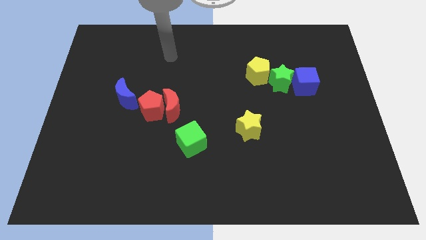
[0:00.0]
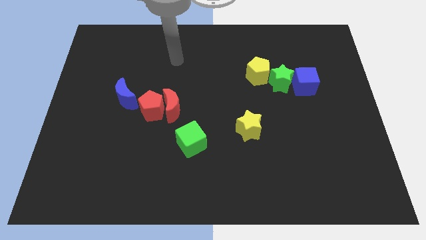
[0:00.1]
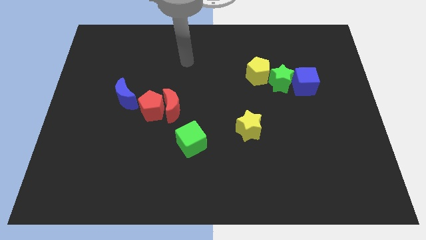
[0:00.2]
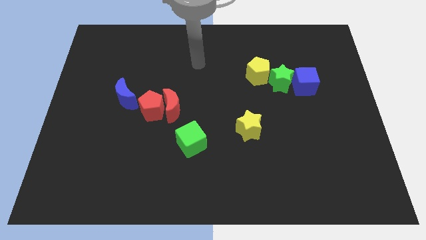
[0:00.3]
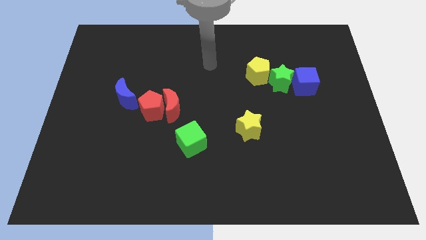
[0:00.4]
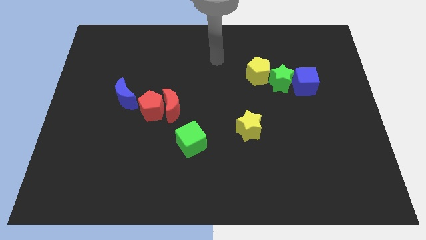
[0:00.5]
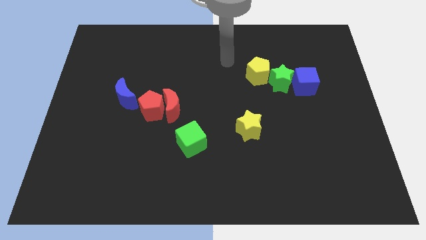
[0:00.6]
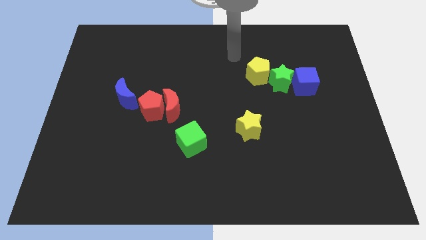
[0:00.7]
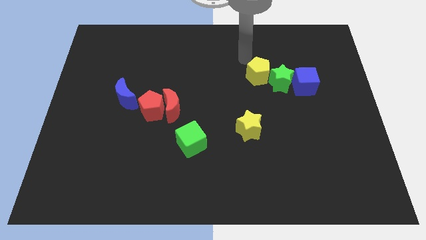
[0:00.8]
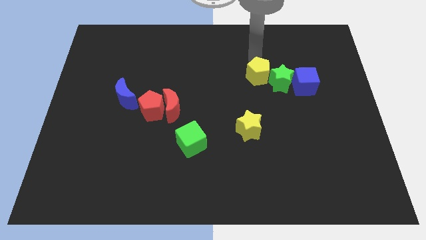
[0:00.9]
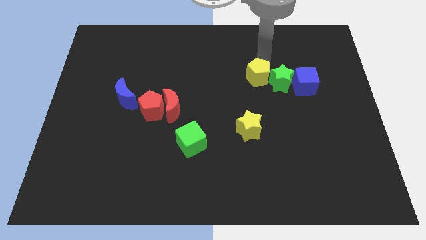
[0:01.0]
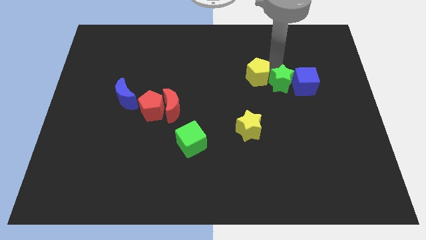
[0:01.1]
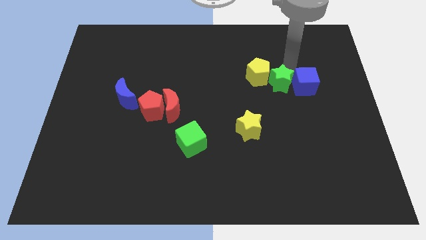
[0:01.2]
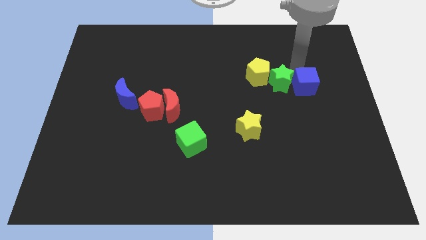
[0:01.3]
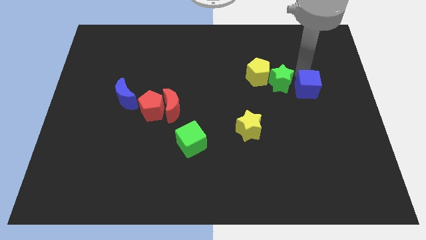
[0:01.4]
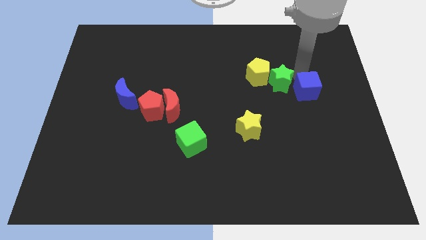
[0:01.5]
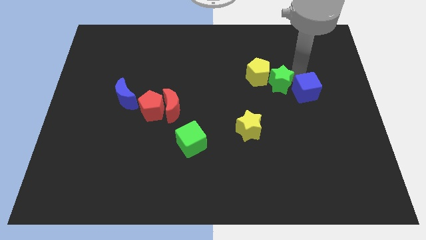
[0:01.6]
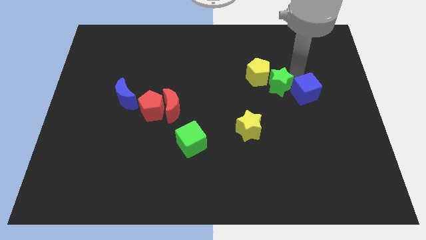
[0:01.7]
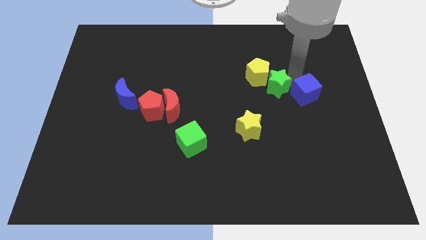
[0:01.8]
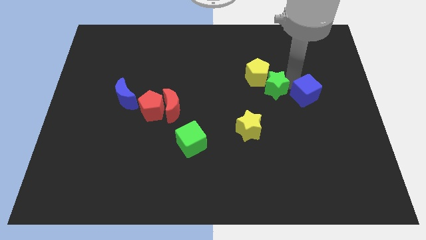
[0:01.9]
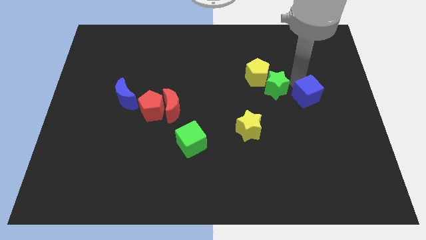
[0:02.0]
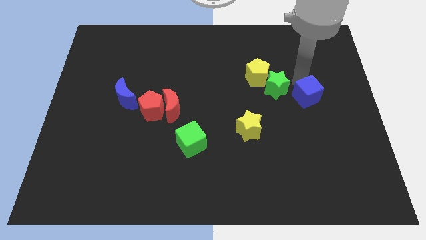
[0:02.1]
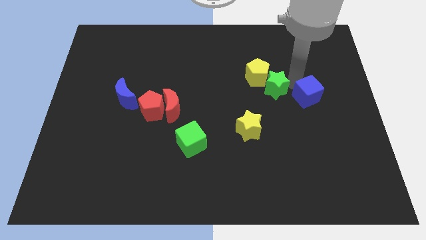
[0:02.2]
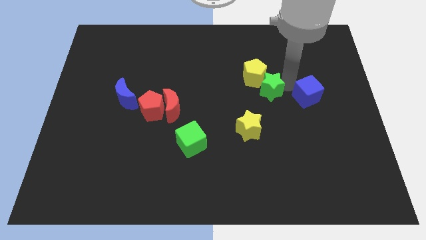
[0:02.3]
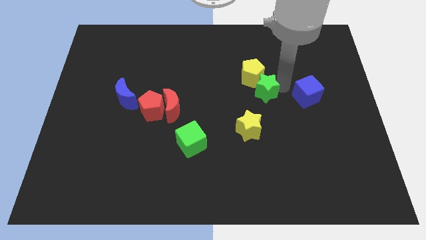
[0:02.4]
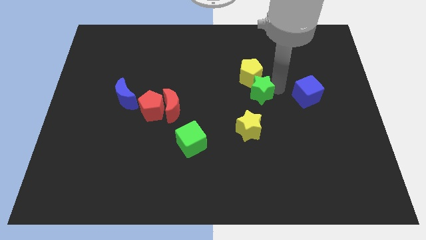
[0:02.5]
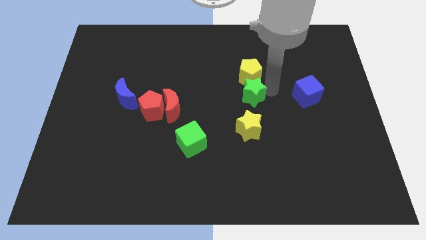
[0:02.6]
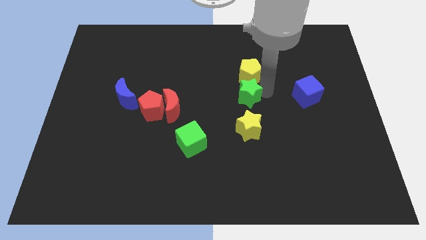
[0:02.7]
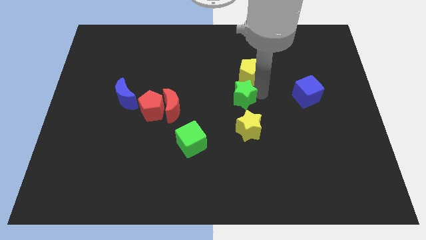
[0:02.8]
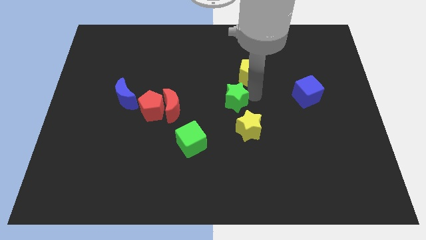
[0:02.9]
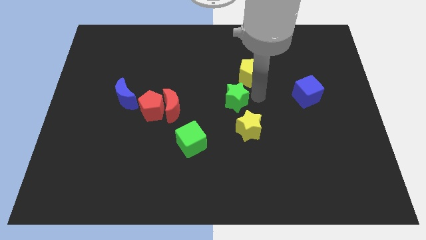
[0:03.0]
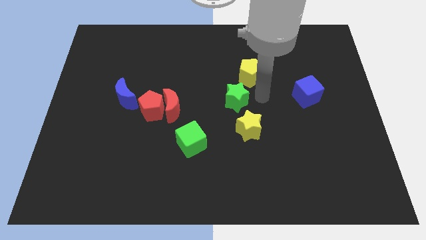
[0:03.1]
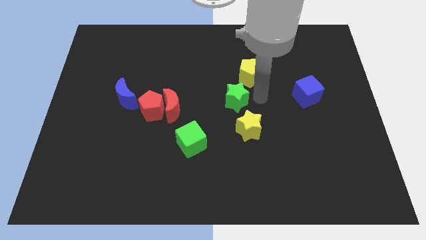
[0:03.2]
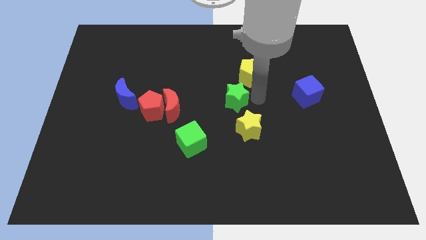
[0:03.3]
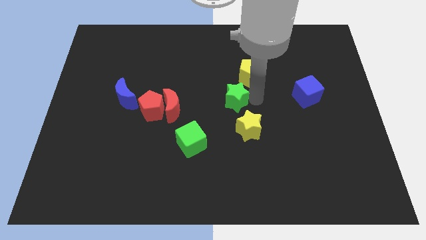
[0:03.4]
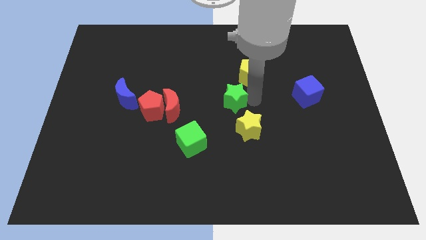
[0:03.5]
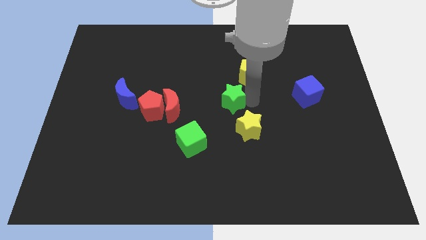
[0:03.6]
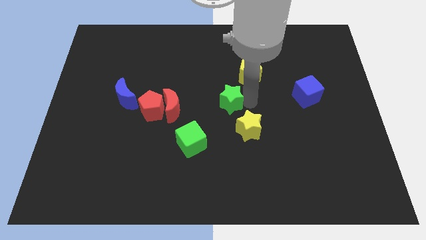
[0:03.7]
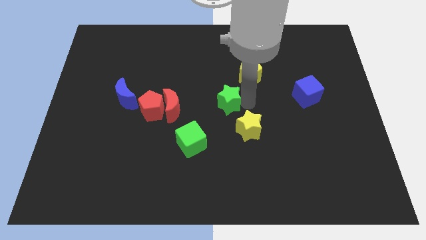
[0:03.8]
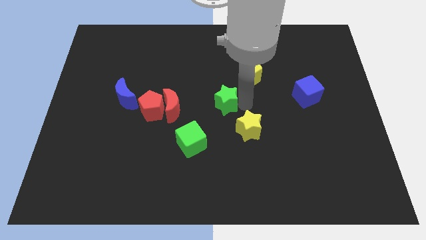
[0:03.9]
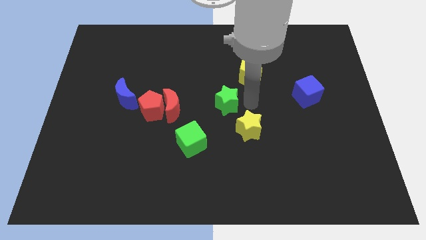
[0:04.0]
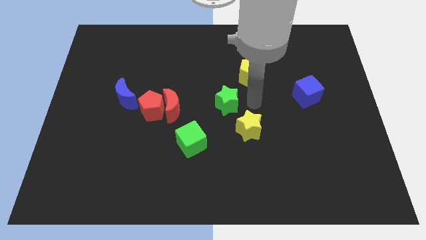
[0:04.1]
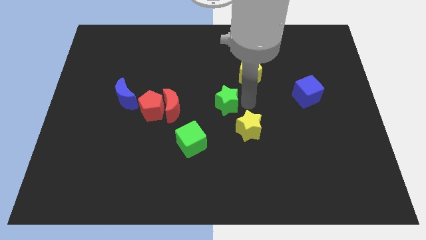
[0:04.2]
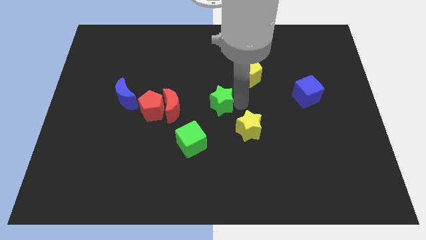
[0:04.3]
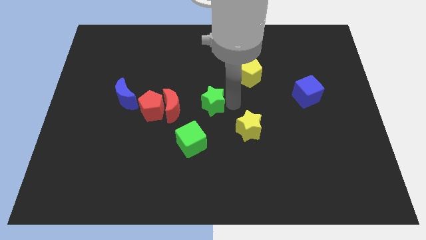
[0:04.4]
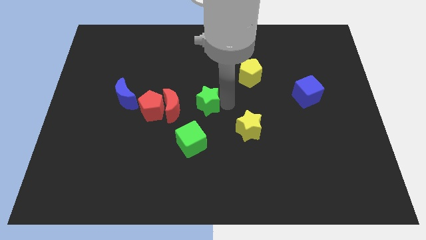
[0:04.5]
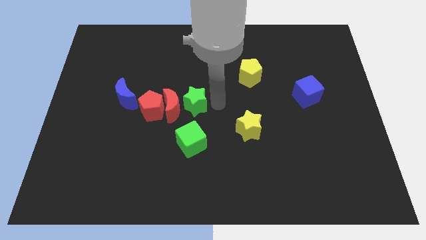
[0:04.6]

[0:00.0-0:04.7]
slide the green star next to the red moon

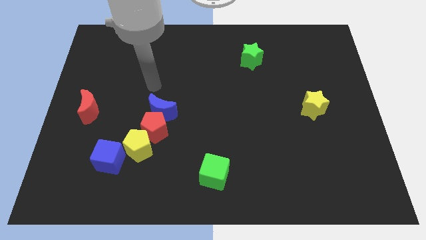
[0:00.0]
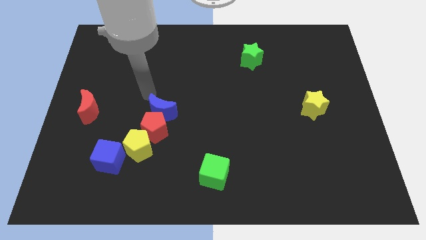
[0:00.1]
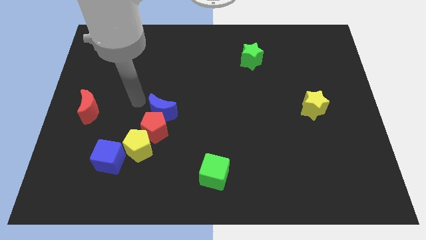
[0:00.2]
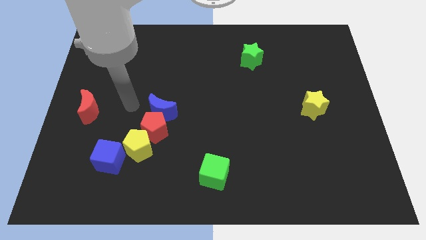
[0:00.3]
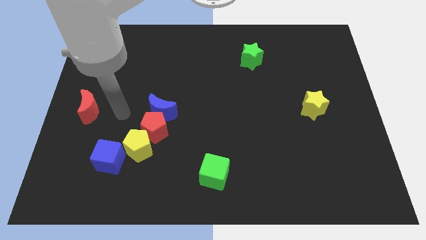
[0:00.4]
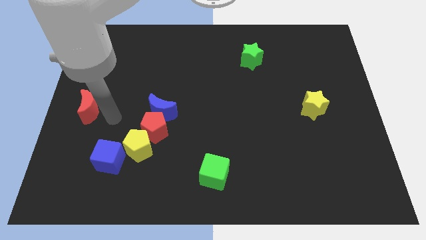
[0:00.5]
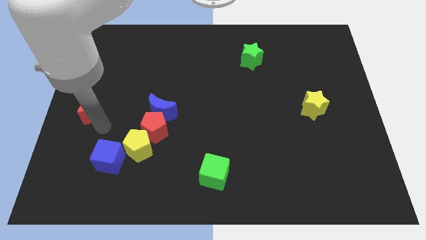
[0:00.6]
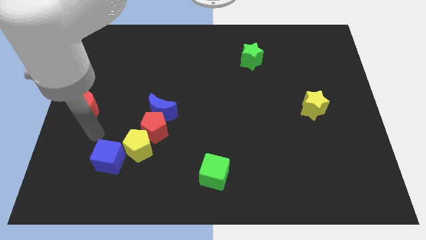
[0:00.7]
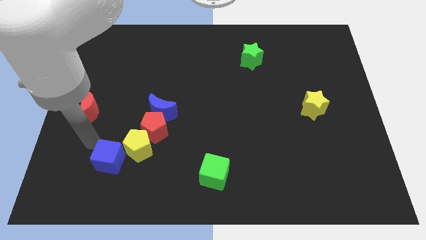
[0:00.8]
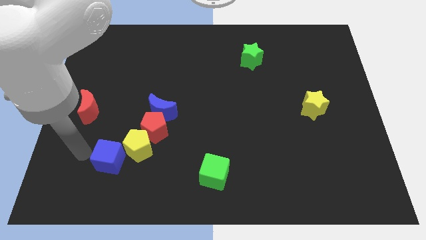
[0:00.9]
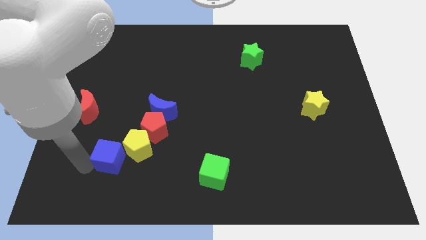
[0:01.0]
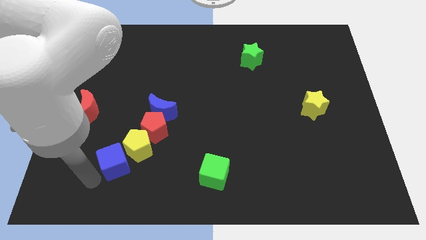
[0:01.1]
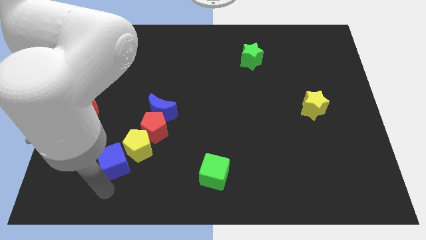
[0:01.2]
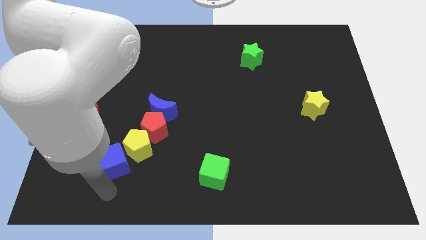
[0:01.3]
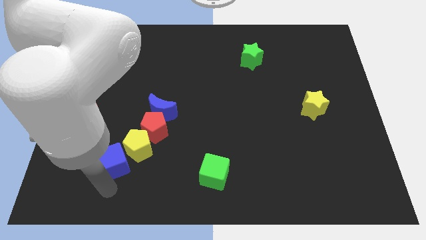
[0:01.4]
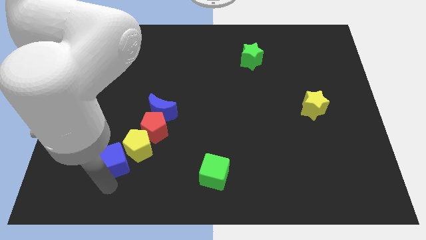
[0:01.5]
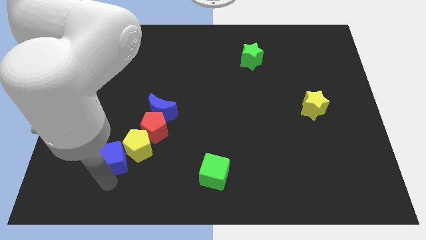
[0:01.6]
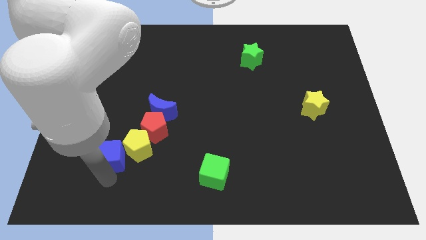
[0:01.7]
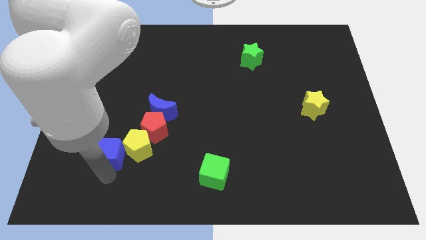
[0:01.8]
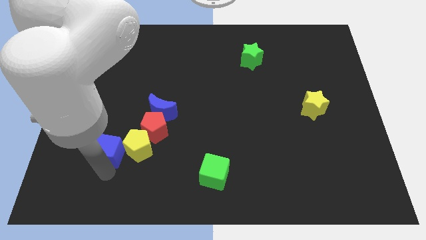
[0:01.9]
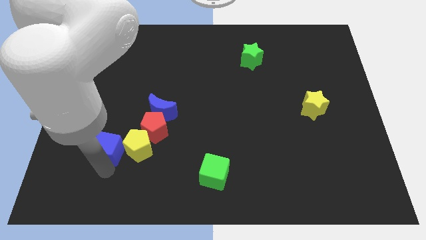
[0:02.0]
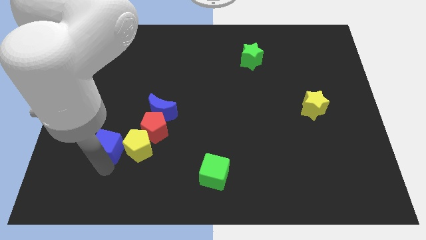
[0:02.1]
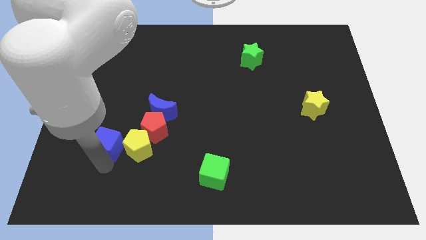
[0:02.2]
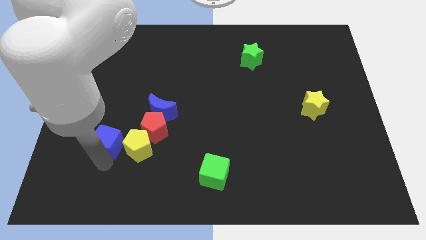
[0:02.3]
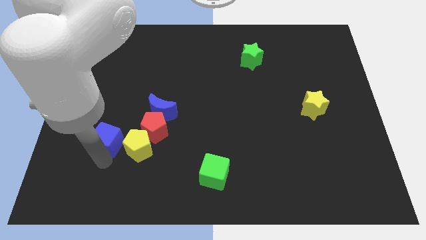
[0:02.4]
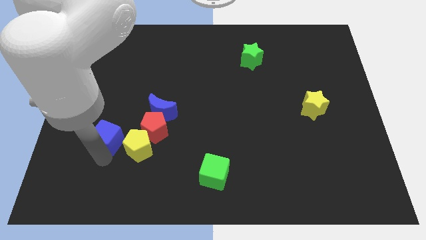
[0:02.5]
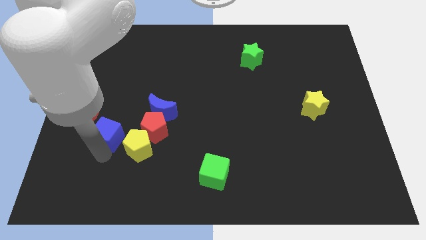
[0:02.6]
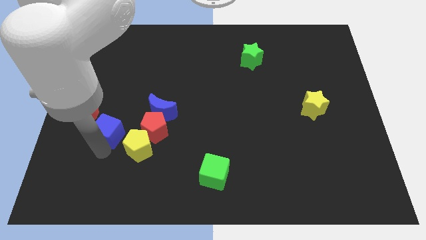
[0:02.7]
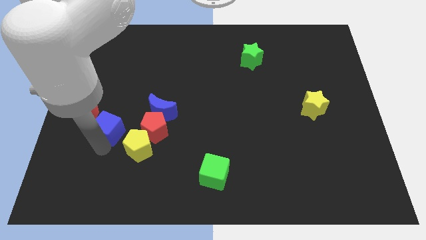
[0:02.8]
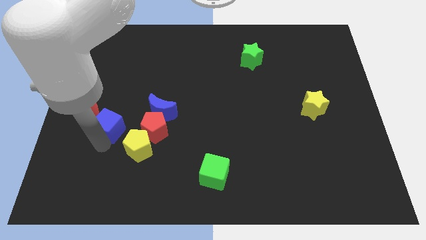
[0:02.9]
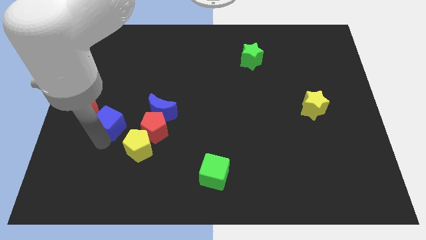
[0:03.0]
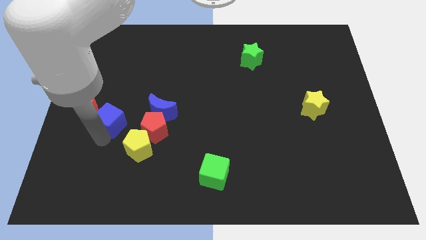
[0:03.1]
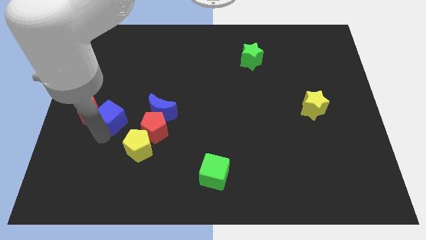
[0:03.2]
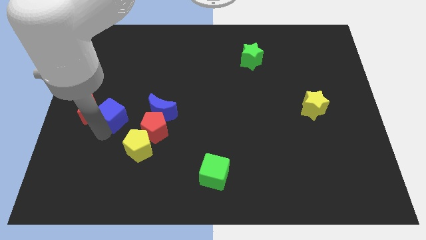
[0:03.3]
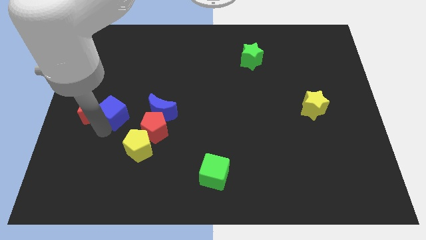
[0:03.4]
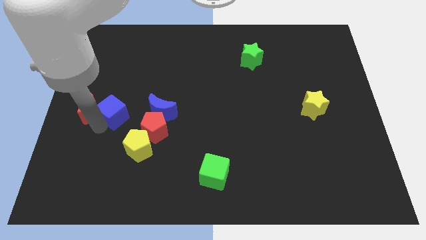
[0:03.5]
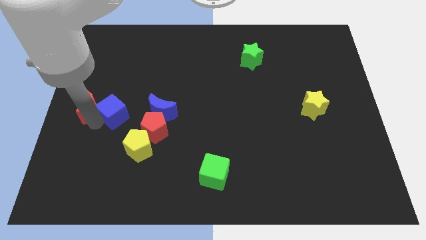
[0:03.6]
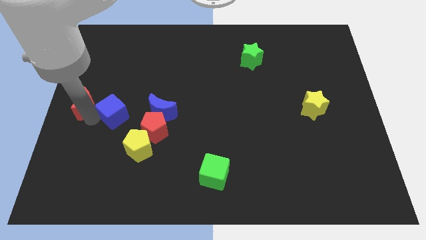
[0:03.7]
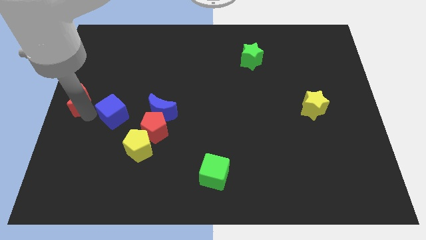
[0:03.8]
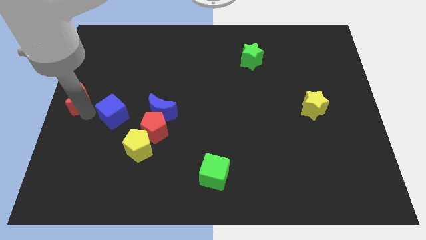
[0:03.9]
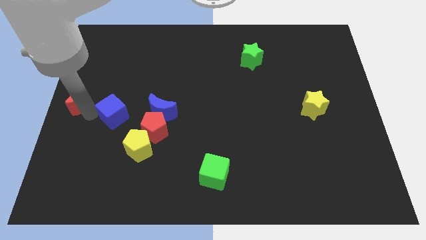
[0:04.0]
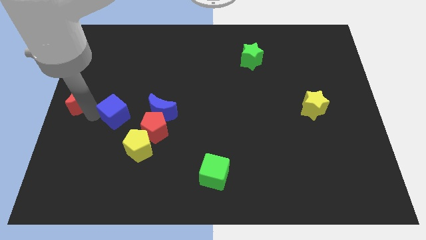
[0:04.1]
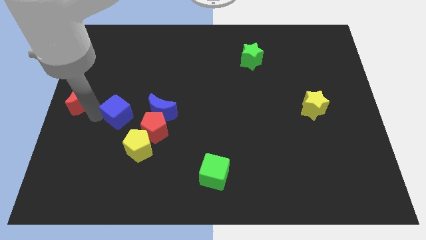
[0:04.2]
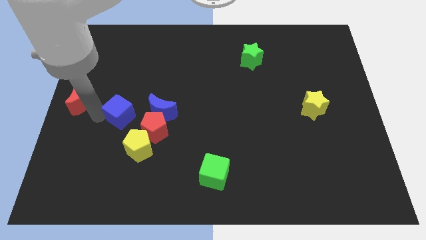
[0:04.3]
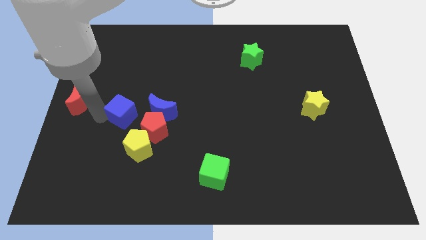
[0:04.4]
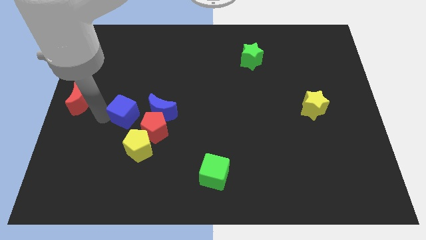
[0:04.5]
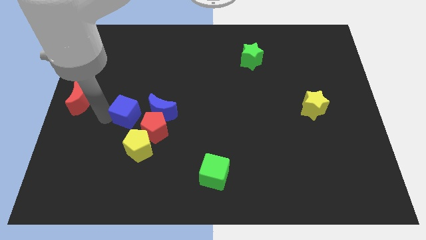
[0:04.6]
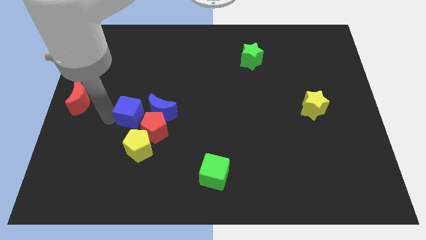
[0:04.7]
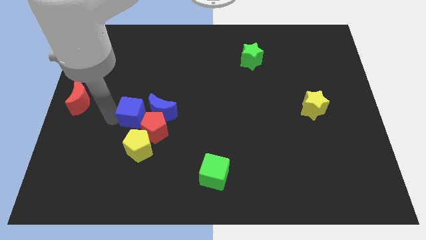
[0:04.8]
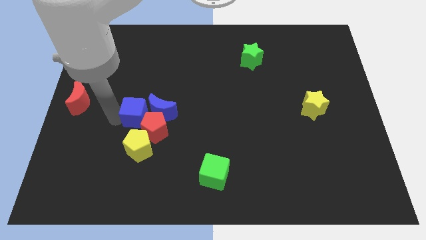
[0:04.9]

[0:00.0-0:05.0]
put the blue cube next to the blue moon
